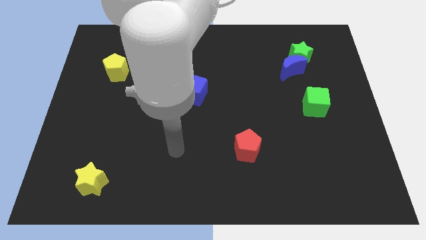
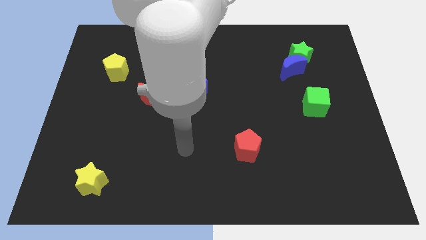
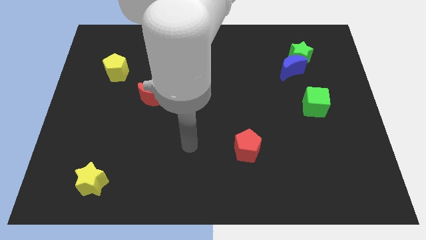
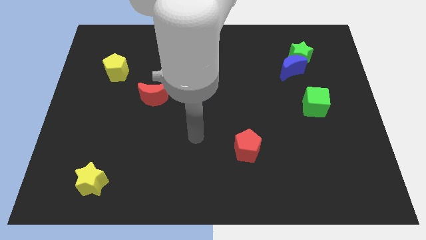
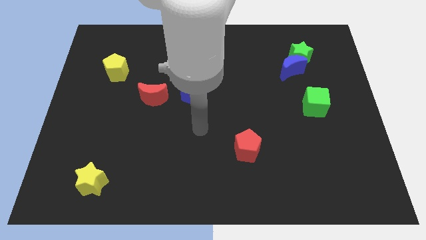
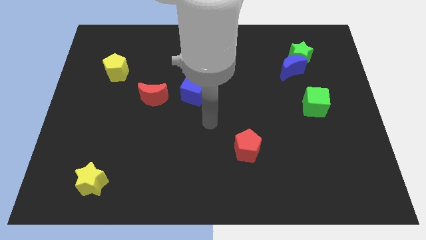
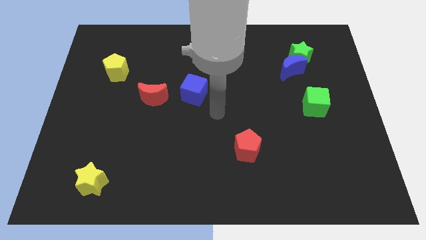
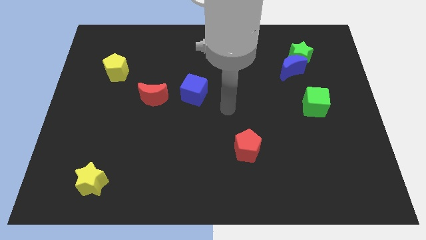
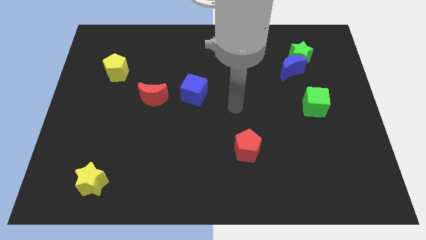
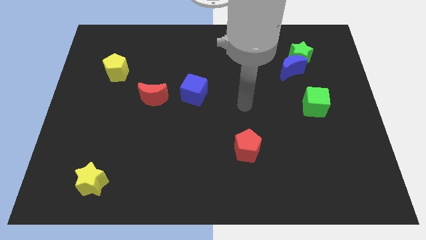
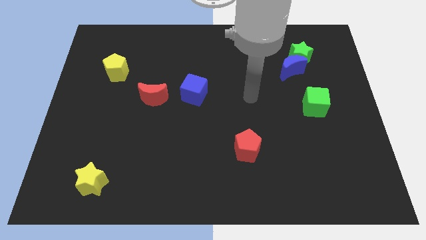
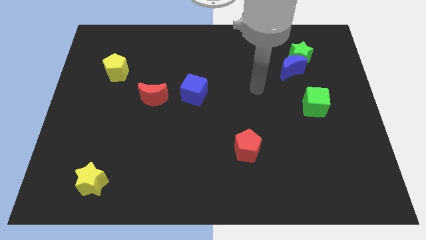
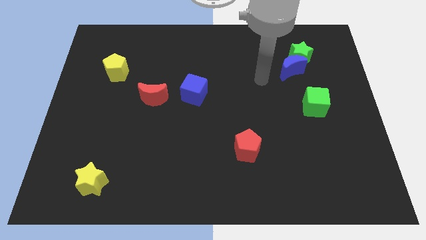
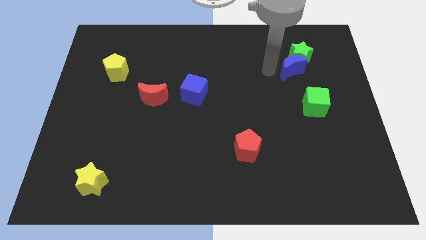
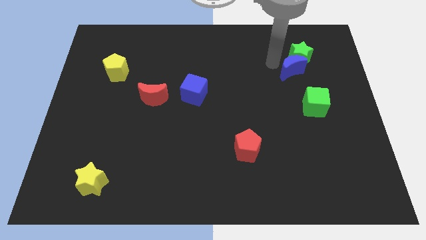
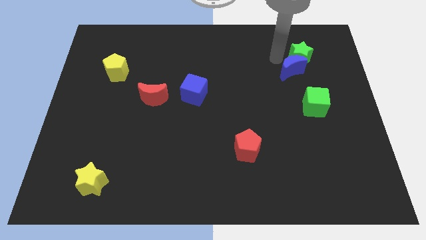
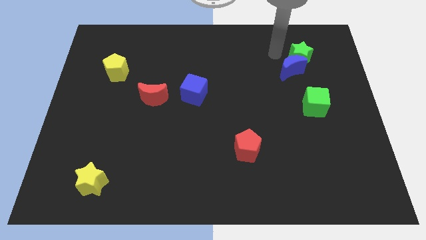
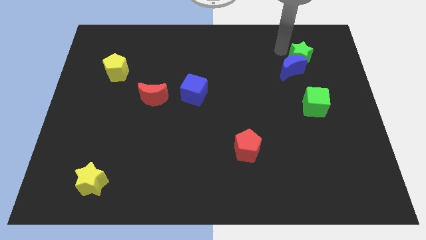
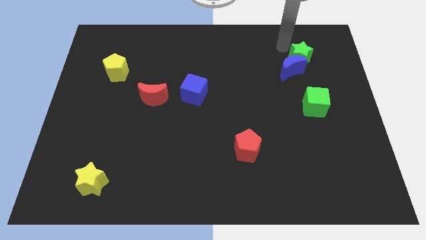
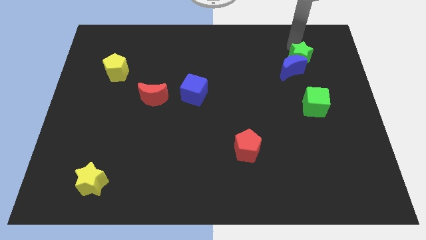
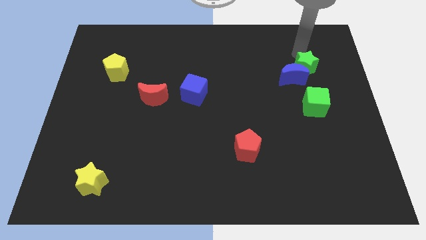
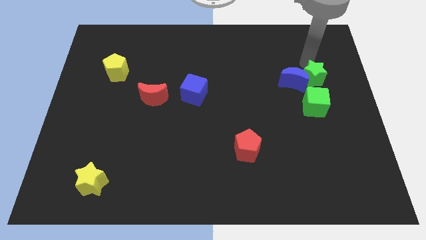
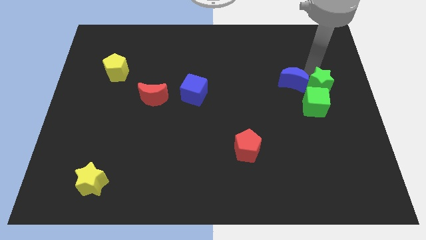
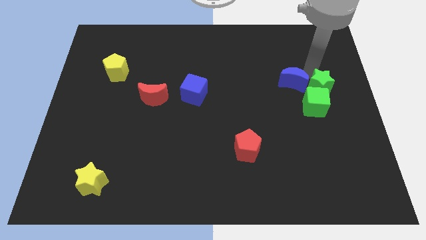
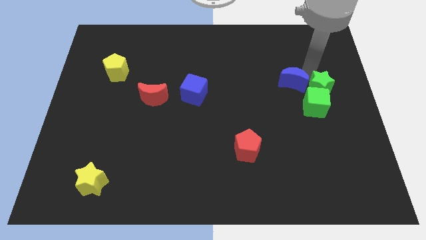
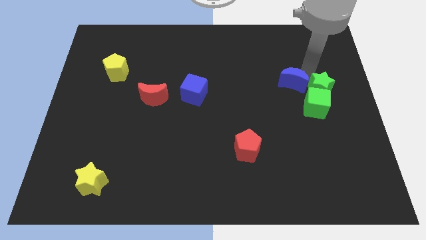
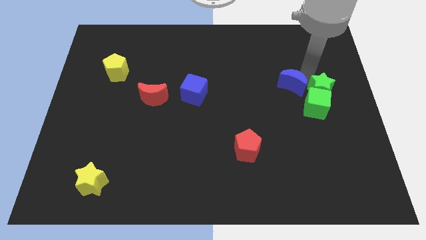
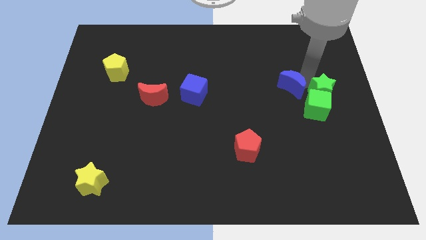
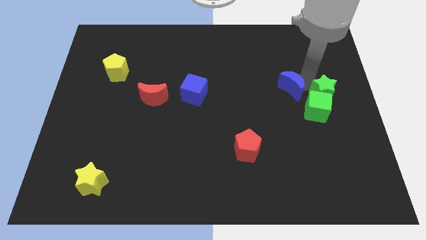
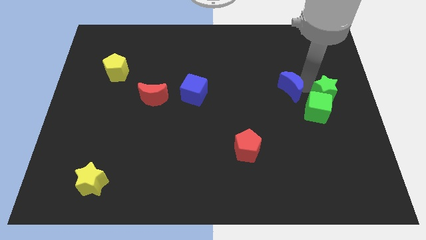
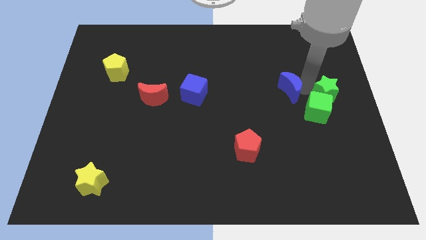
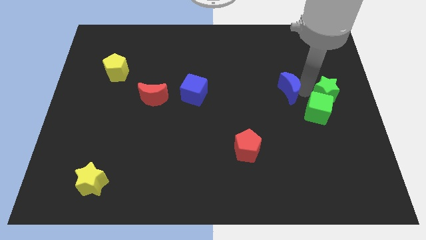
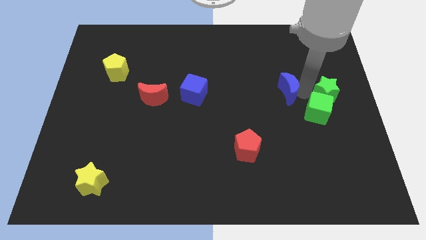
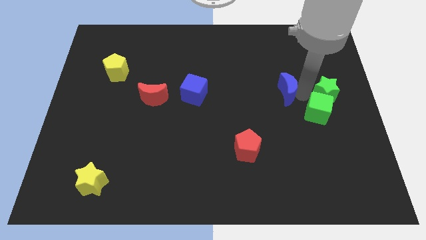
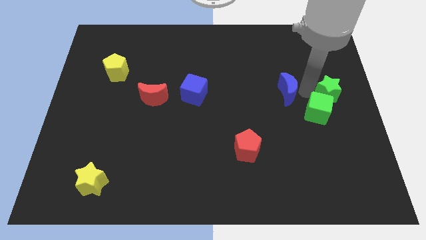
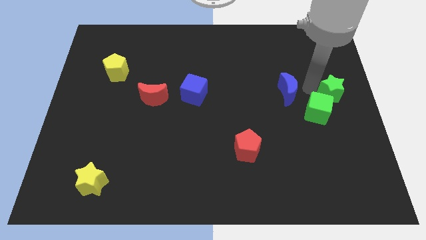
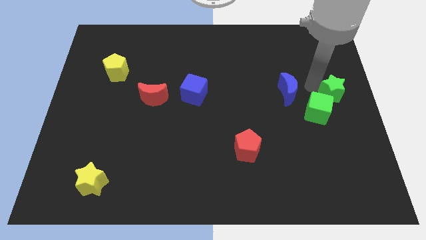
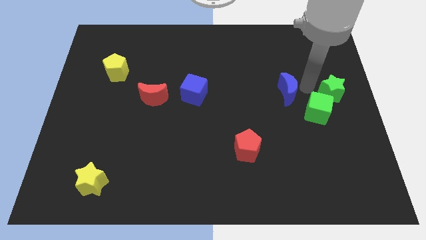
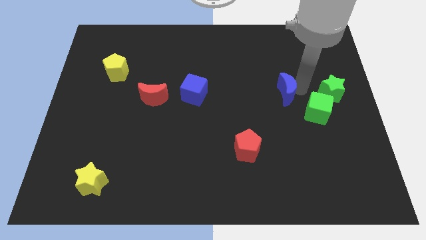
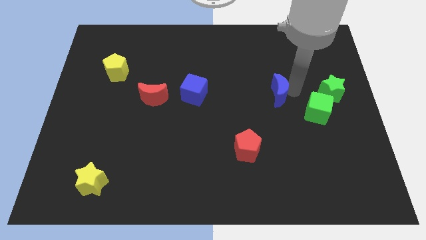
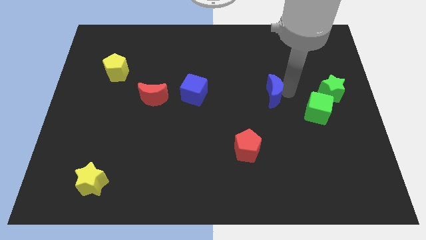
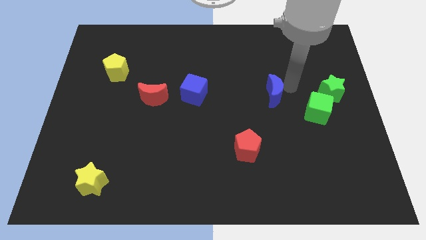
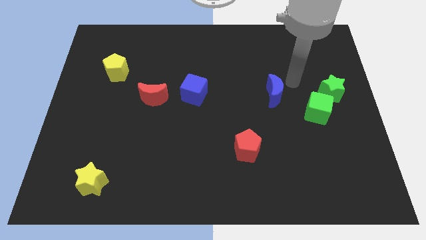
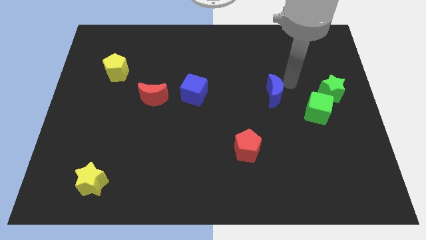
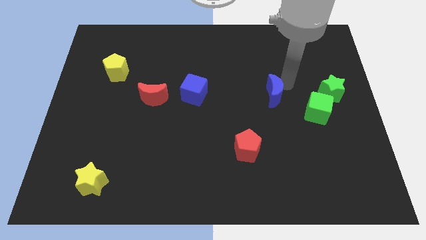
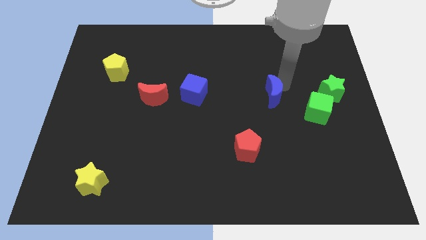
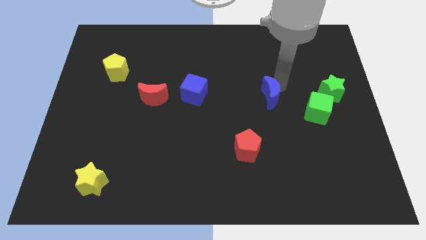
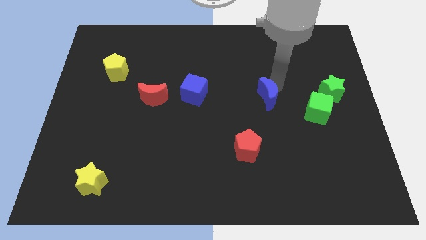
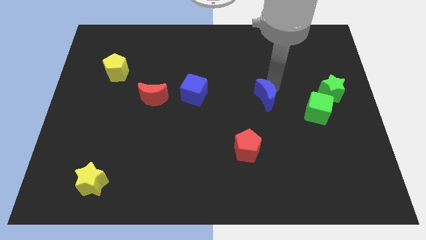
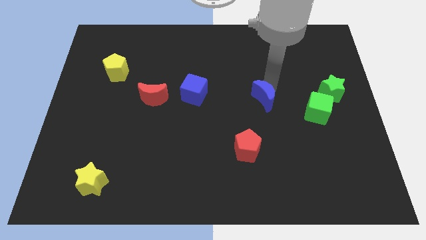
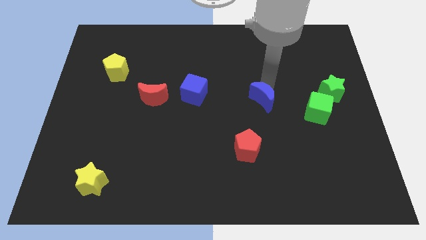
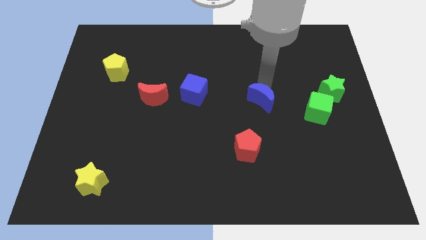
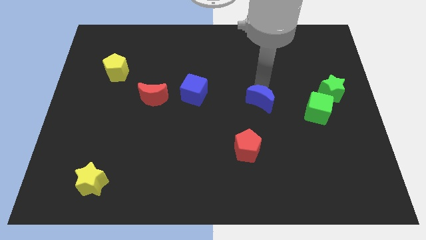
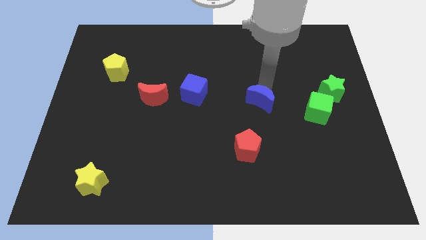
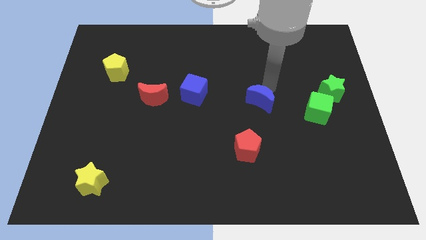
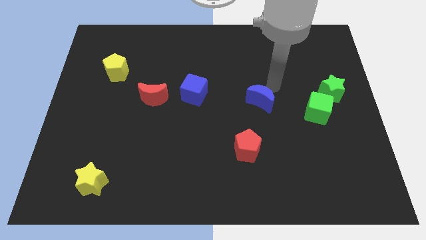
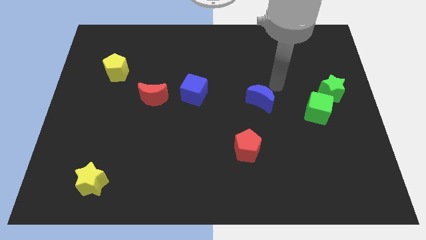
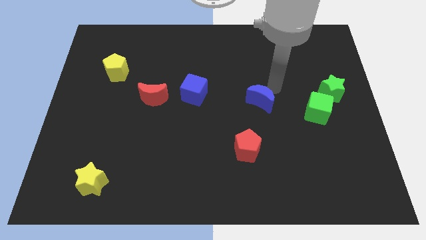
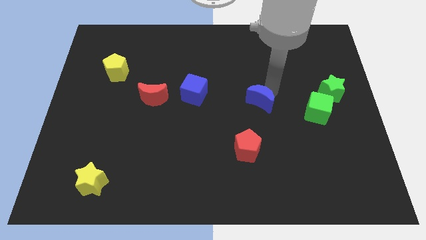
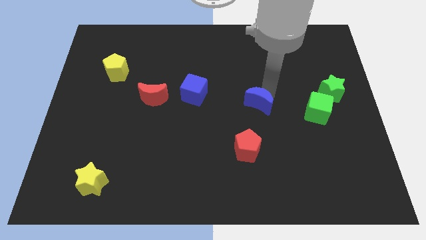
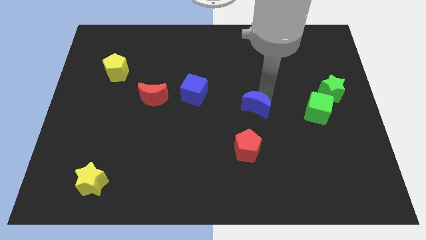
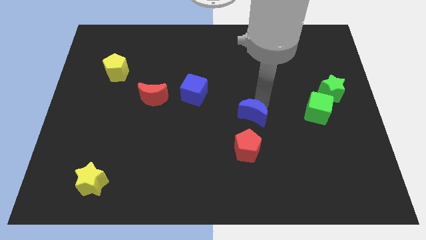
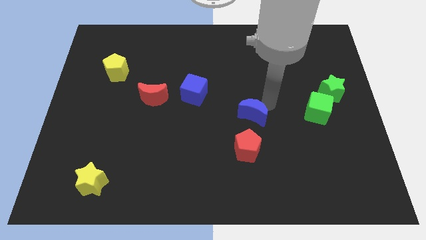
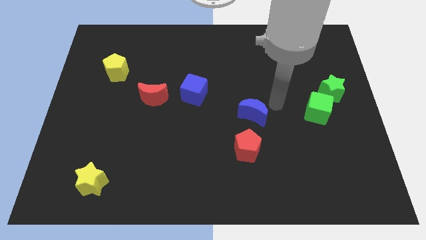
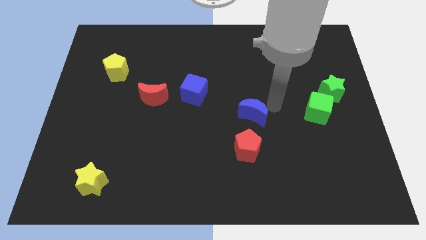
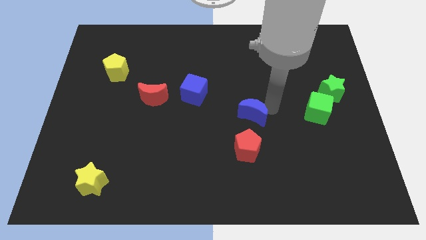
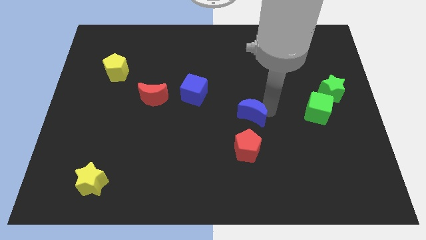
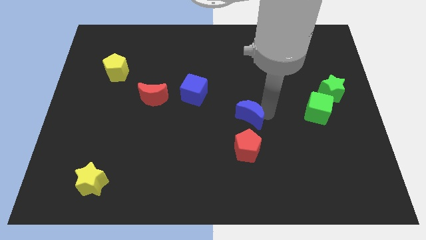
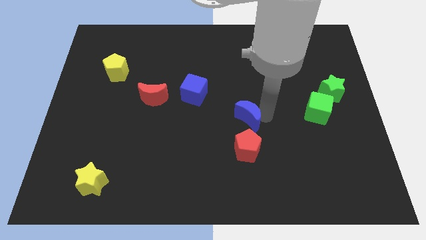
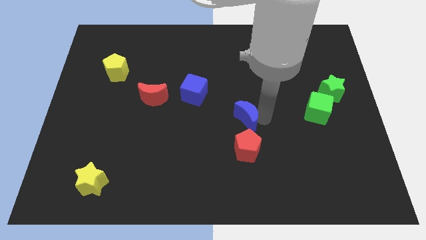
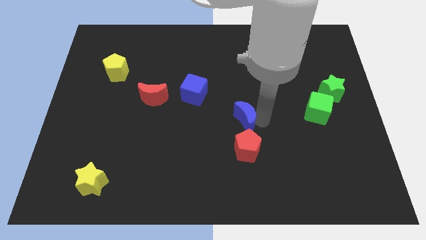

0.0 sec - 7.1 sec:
move the blue moon diagonally downwards and to the left

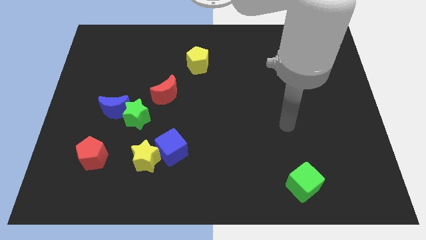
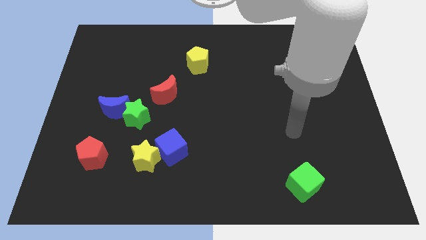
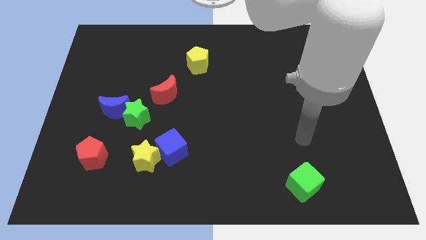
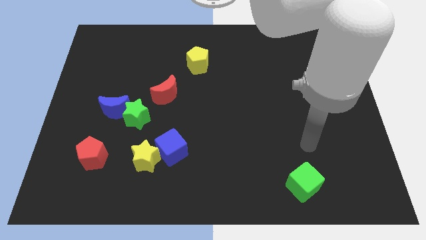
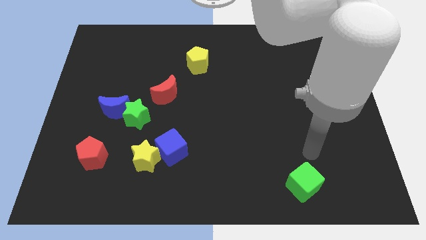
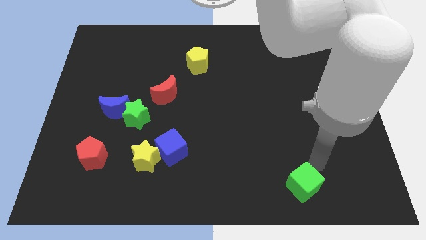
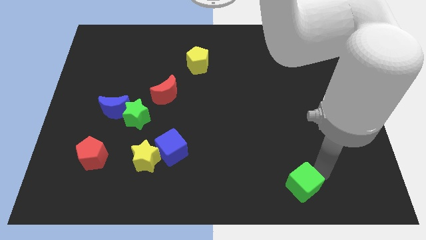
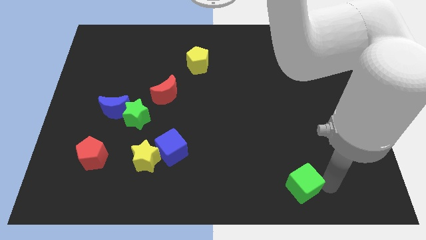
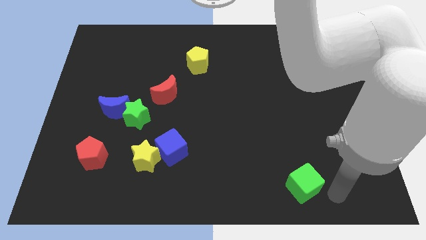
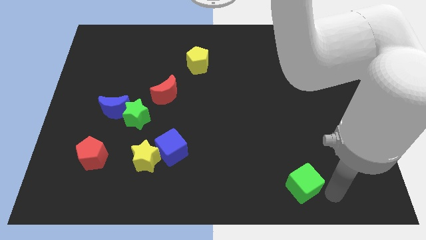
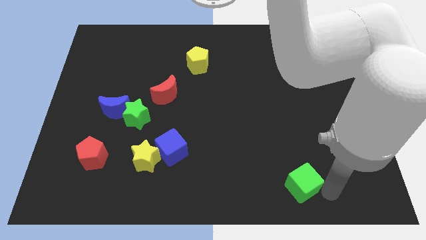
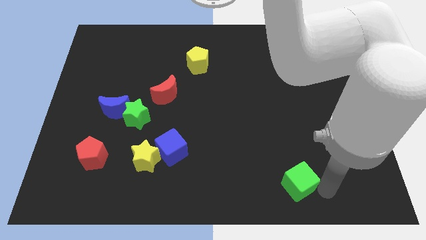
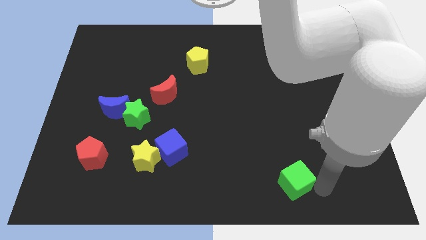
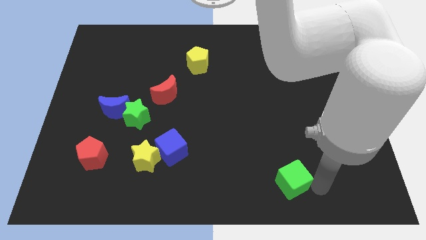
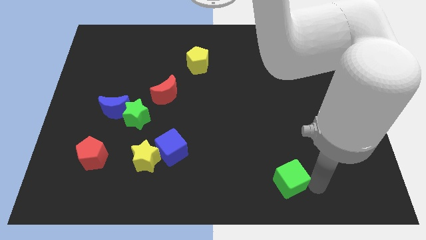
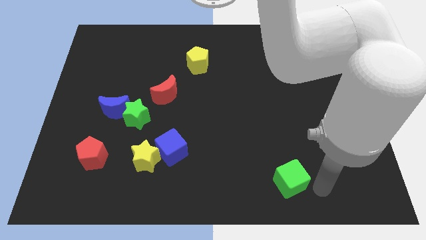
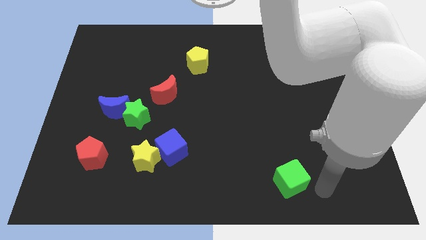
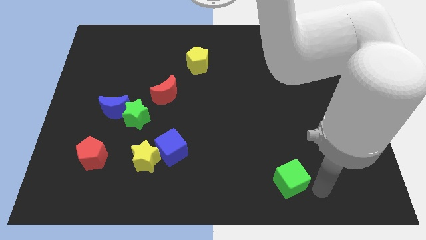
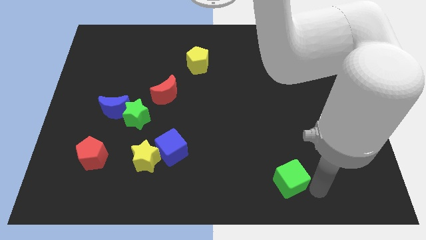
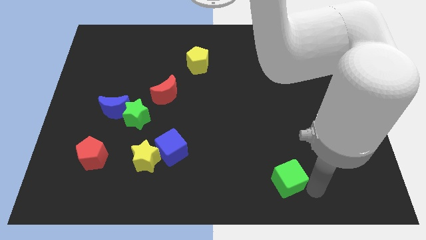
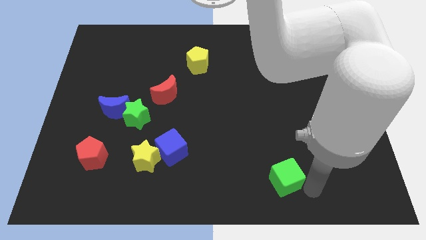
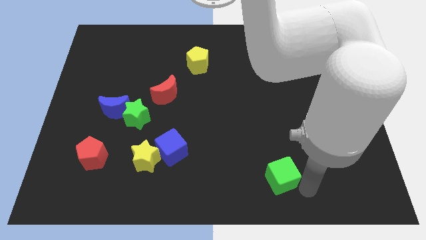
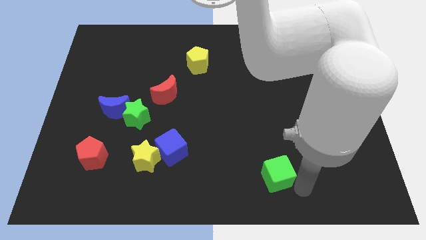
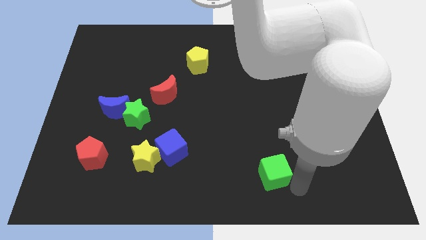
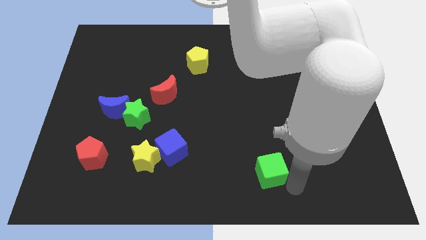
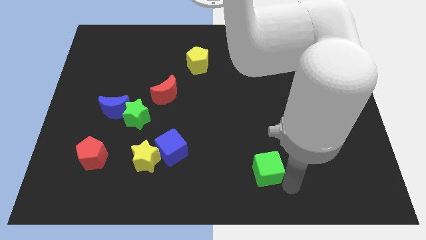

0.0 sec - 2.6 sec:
push the green cube left a little bit
